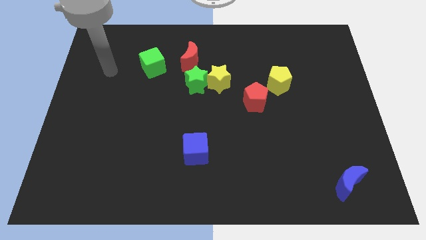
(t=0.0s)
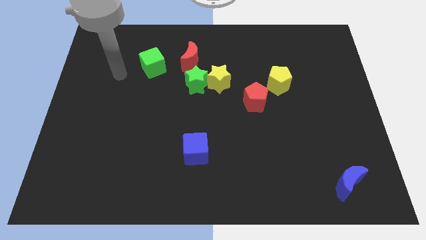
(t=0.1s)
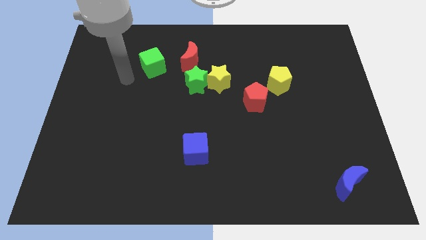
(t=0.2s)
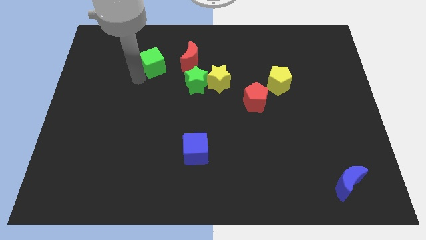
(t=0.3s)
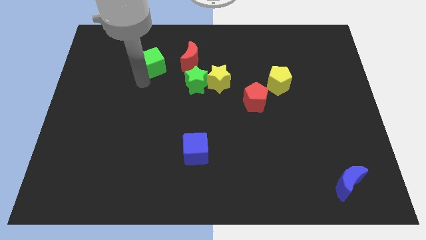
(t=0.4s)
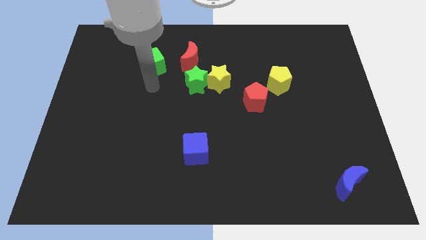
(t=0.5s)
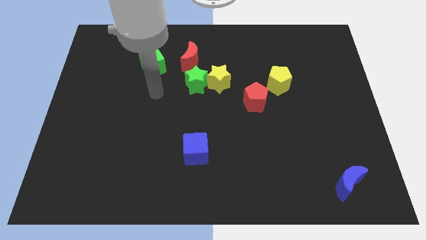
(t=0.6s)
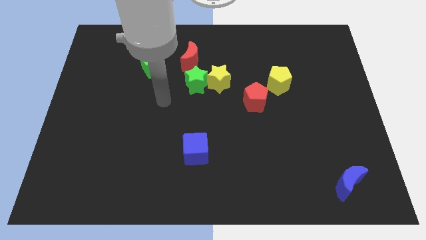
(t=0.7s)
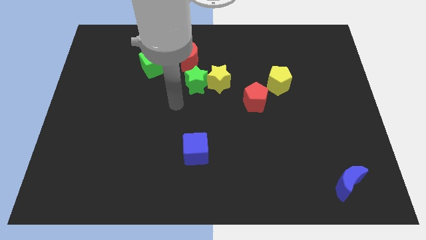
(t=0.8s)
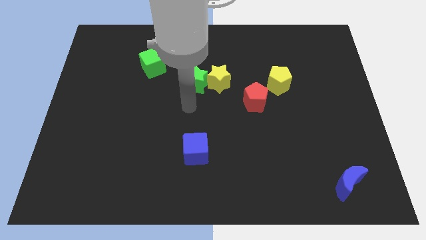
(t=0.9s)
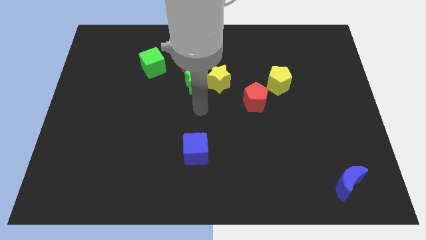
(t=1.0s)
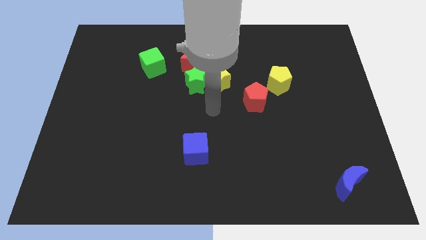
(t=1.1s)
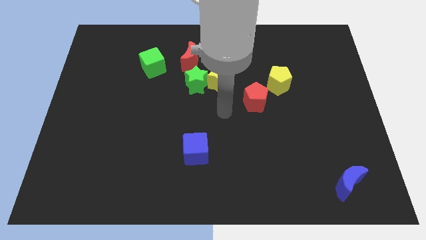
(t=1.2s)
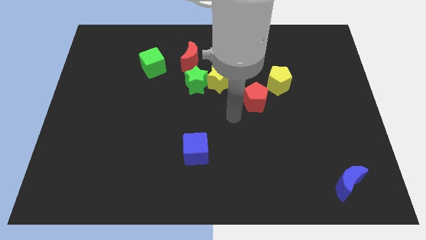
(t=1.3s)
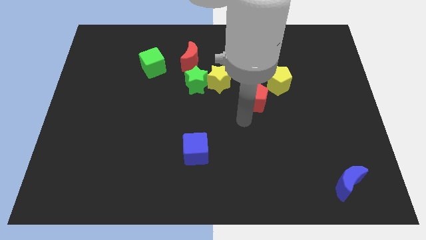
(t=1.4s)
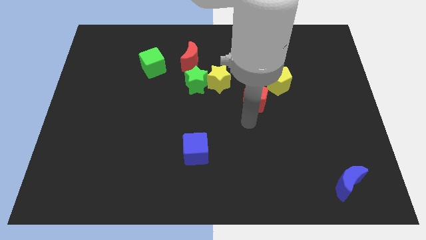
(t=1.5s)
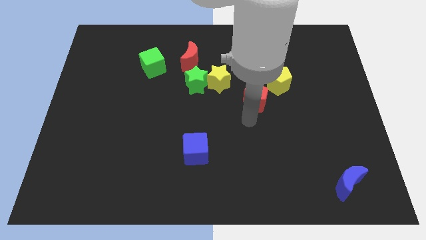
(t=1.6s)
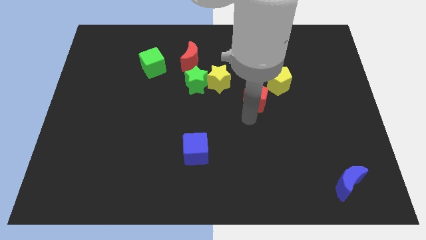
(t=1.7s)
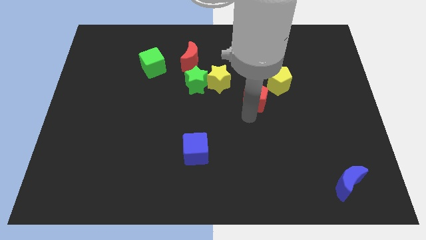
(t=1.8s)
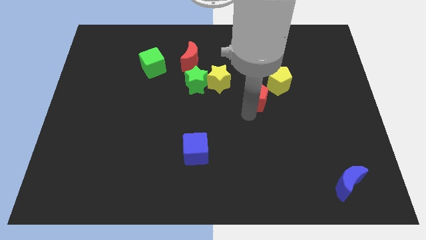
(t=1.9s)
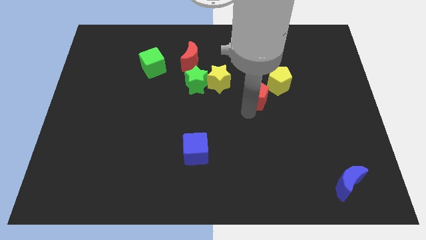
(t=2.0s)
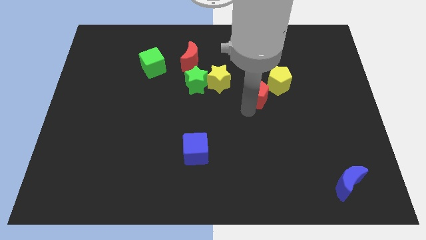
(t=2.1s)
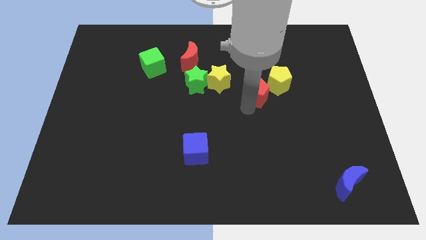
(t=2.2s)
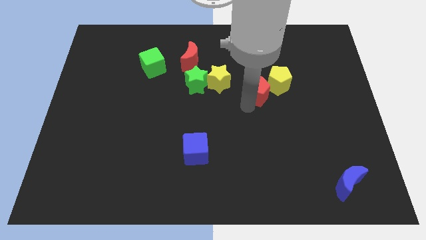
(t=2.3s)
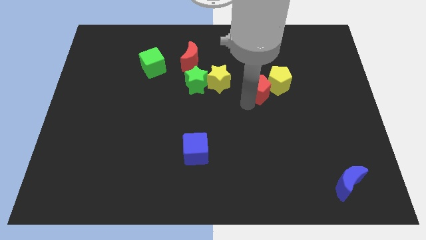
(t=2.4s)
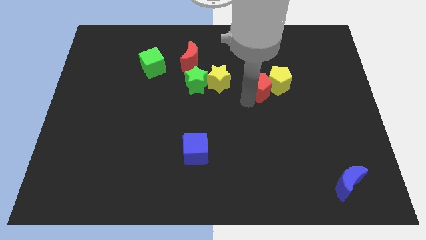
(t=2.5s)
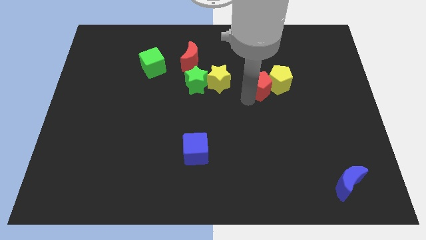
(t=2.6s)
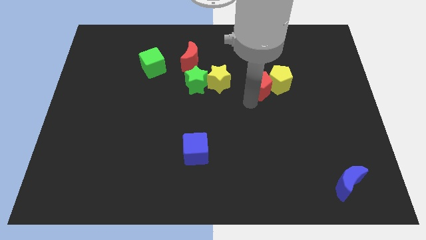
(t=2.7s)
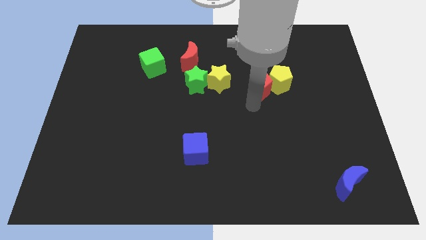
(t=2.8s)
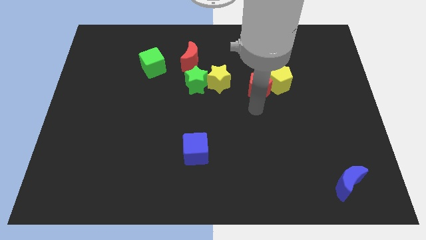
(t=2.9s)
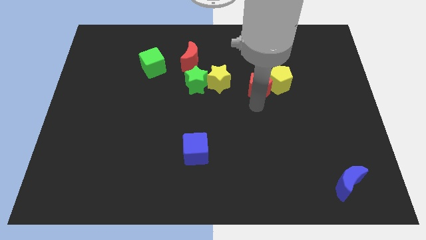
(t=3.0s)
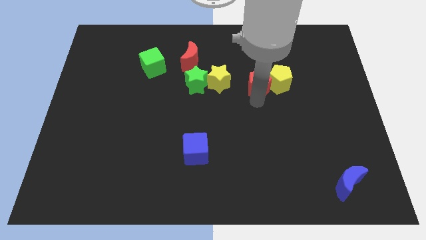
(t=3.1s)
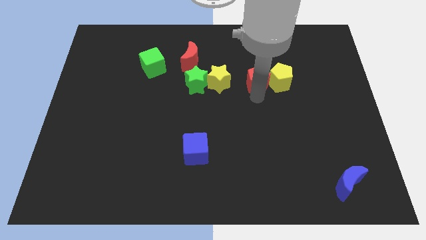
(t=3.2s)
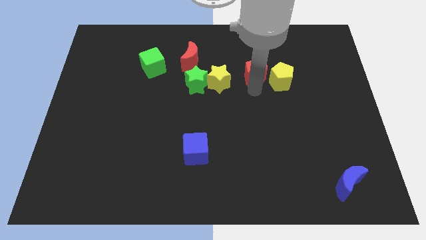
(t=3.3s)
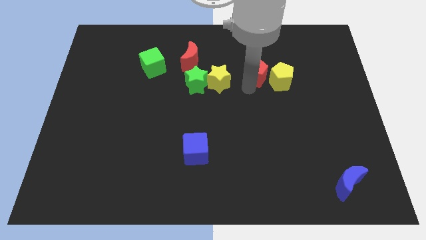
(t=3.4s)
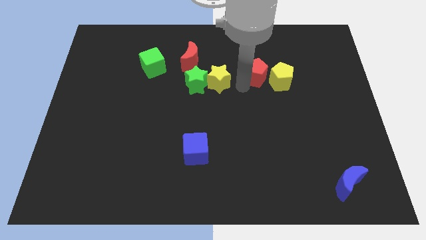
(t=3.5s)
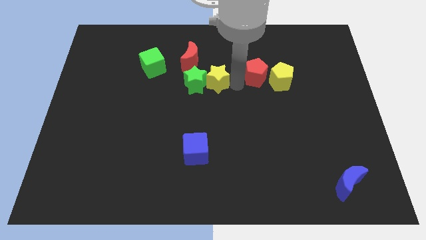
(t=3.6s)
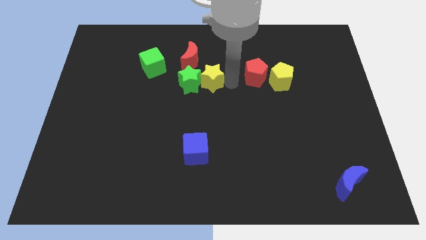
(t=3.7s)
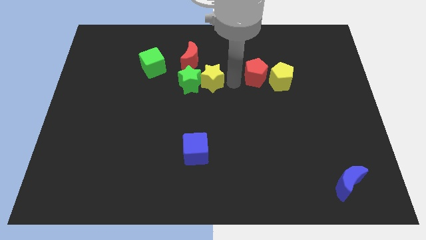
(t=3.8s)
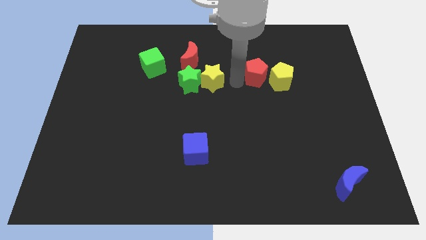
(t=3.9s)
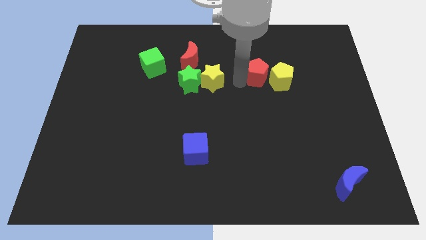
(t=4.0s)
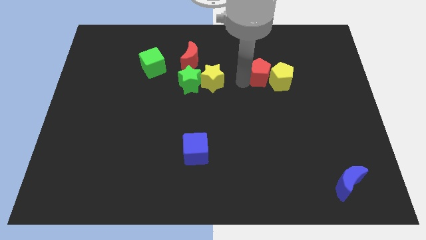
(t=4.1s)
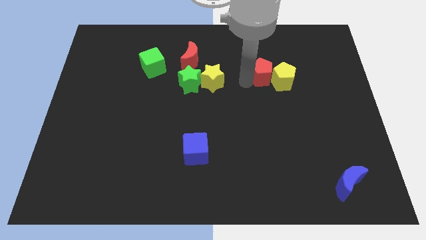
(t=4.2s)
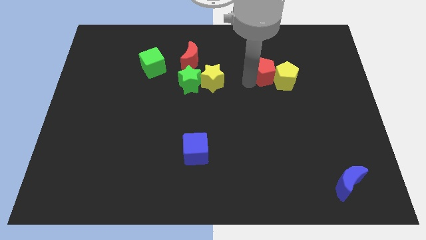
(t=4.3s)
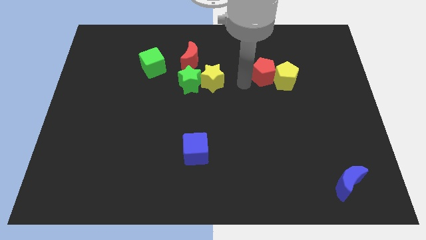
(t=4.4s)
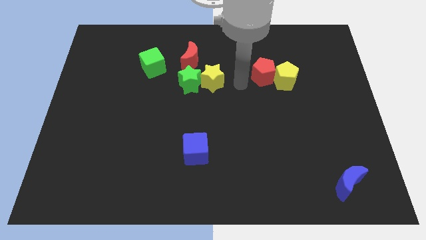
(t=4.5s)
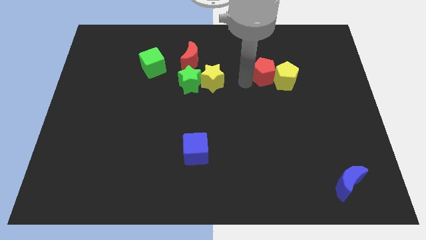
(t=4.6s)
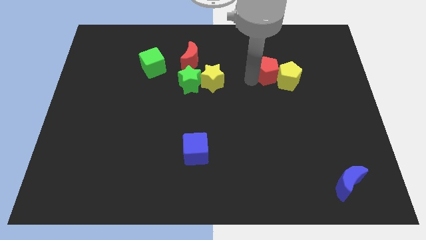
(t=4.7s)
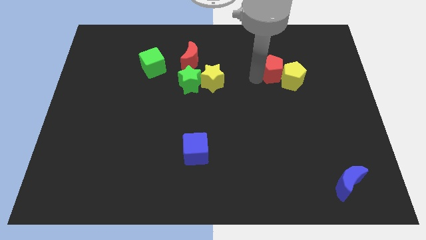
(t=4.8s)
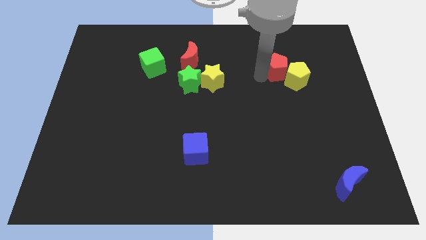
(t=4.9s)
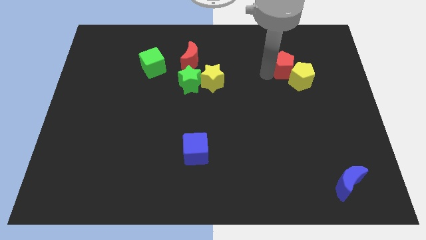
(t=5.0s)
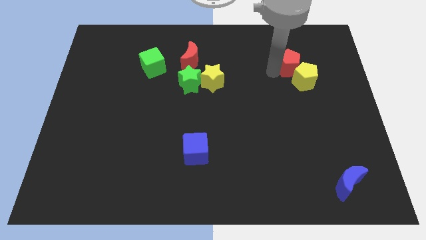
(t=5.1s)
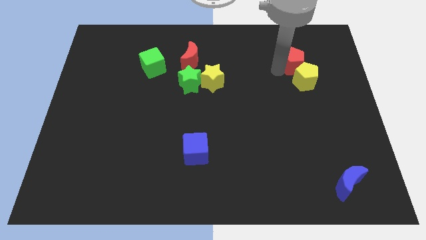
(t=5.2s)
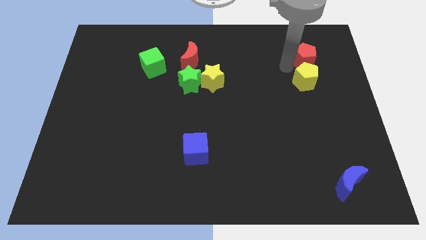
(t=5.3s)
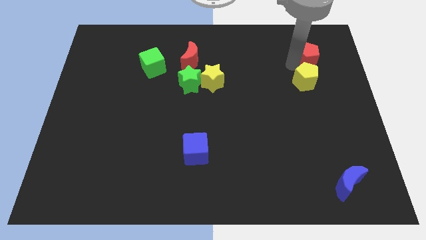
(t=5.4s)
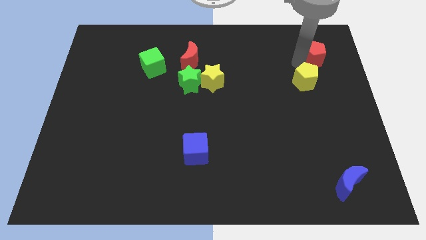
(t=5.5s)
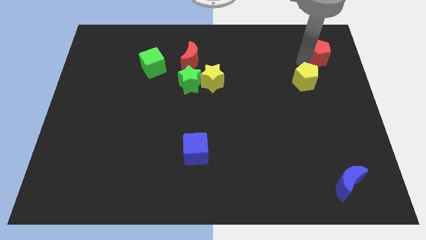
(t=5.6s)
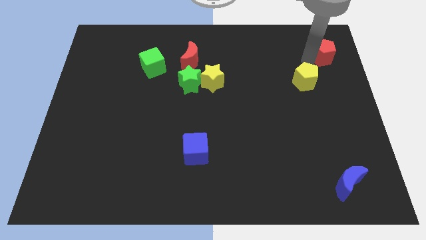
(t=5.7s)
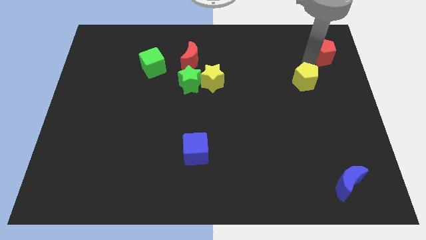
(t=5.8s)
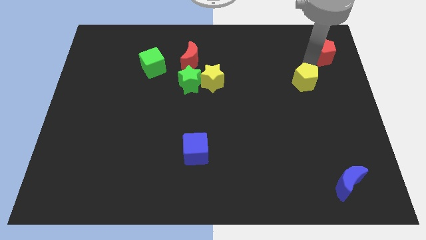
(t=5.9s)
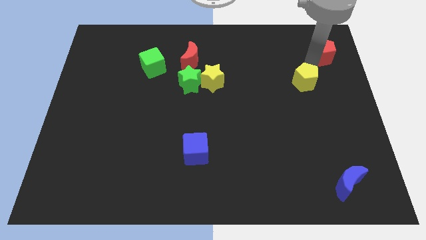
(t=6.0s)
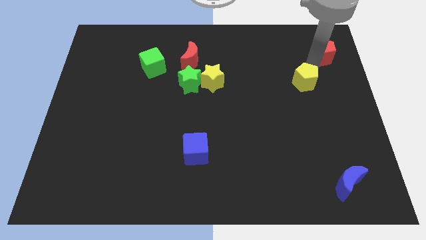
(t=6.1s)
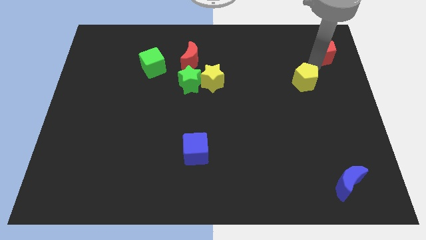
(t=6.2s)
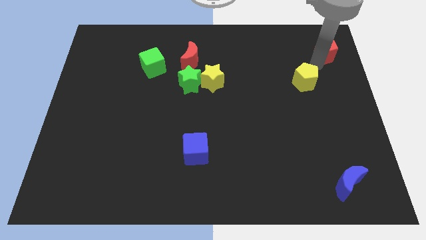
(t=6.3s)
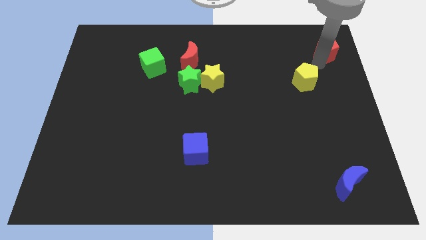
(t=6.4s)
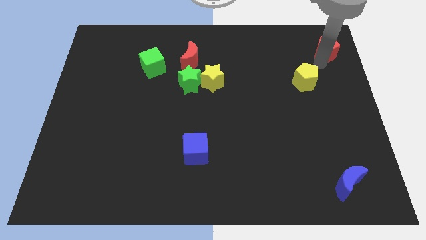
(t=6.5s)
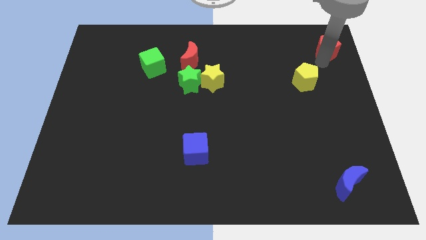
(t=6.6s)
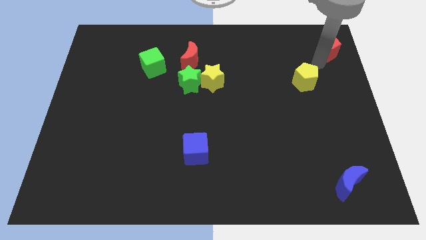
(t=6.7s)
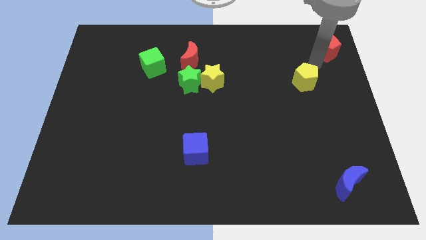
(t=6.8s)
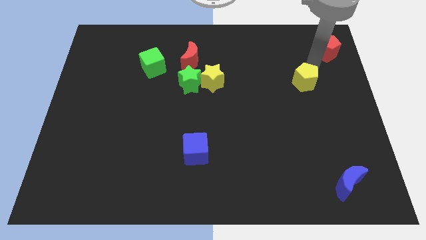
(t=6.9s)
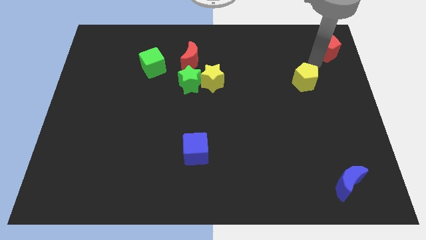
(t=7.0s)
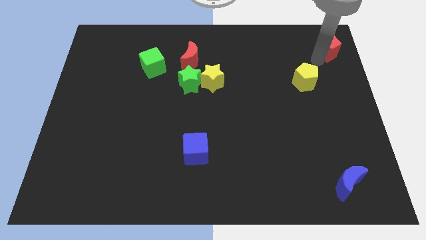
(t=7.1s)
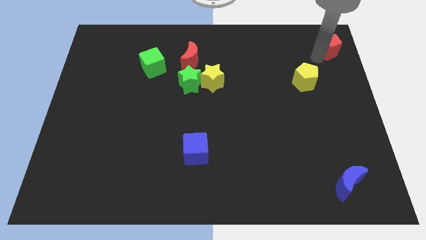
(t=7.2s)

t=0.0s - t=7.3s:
slide the red pentagon to the upper right corner
